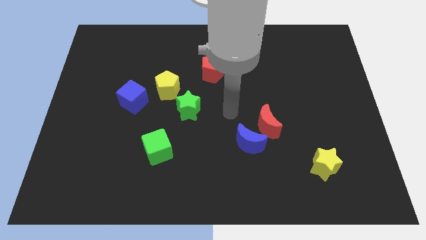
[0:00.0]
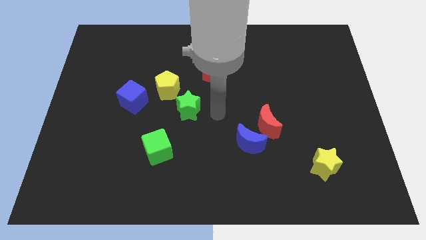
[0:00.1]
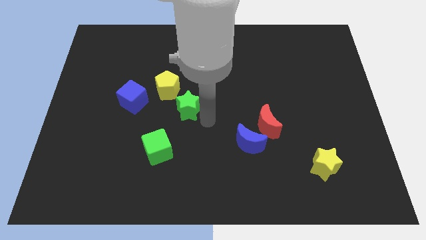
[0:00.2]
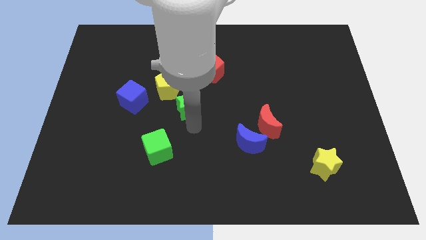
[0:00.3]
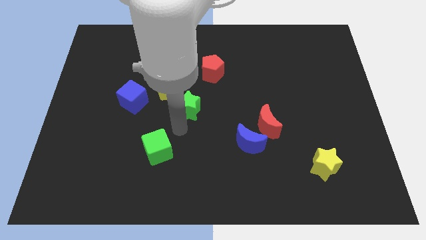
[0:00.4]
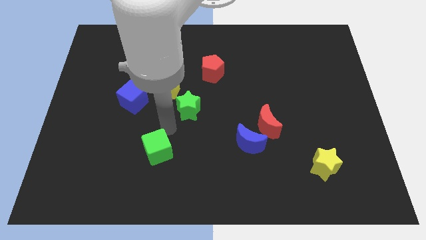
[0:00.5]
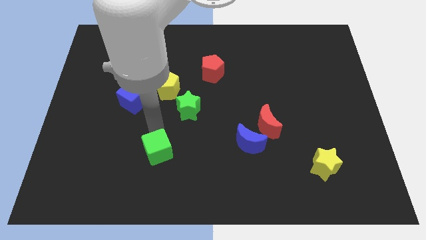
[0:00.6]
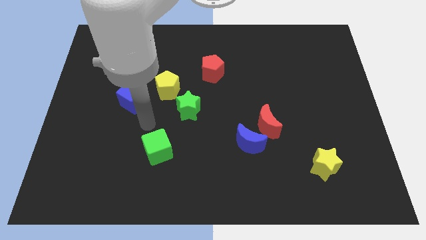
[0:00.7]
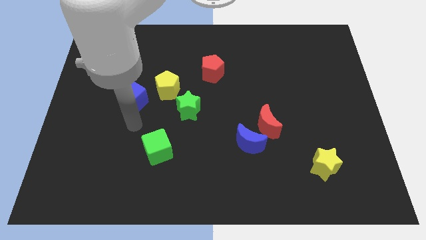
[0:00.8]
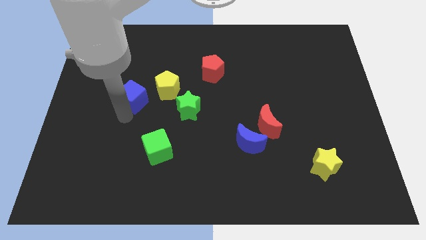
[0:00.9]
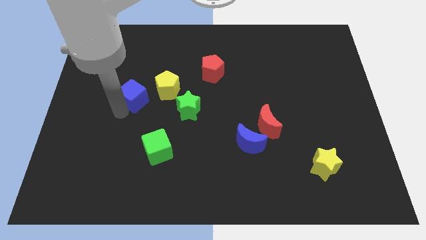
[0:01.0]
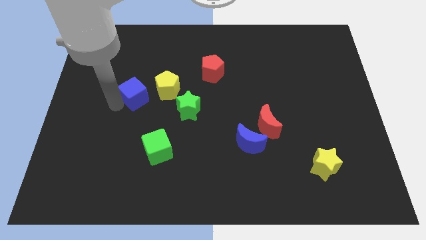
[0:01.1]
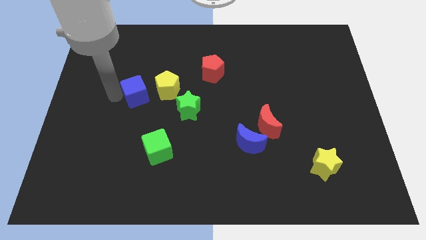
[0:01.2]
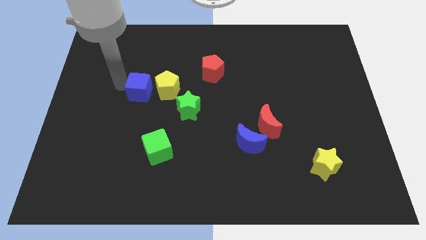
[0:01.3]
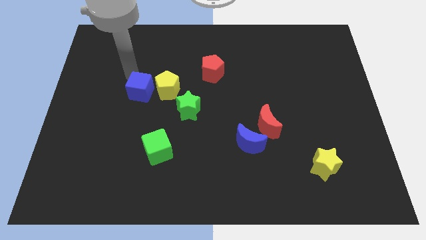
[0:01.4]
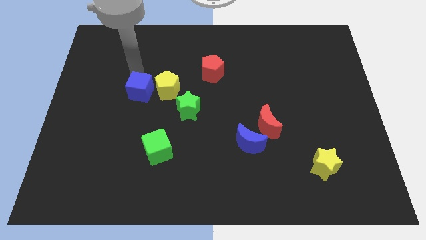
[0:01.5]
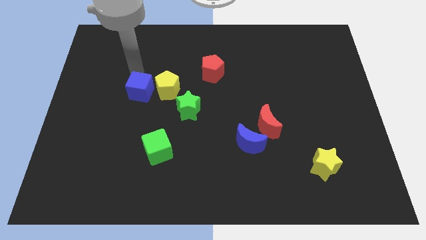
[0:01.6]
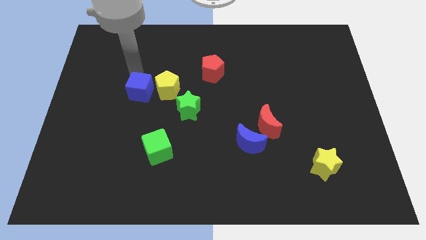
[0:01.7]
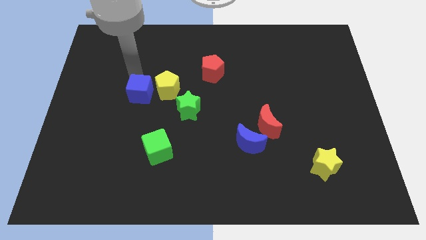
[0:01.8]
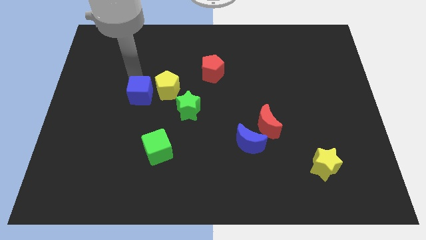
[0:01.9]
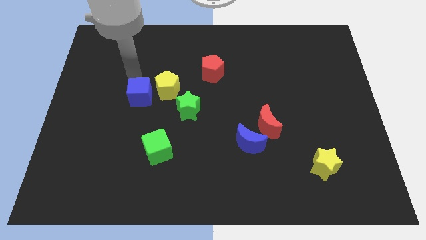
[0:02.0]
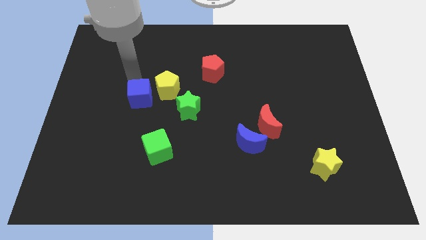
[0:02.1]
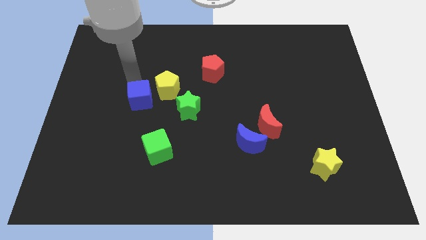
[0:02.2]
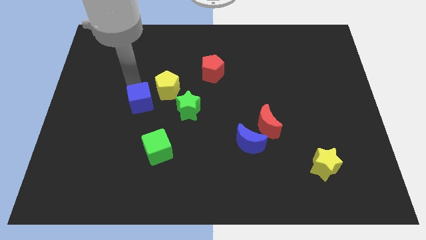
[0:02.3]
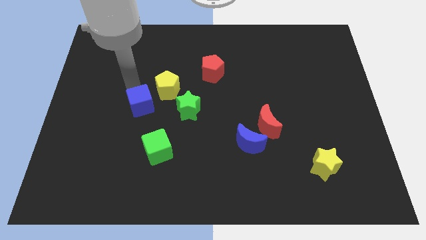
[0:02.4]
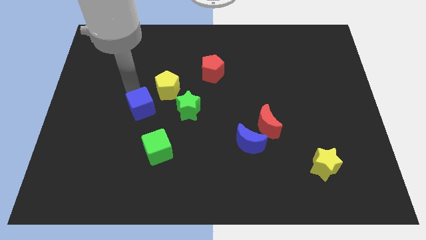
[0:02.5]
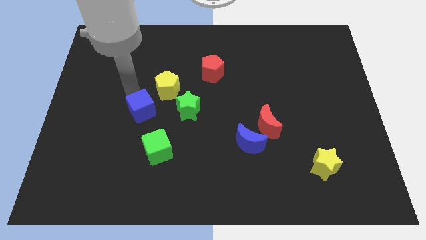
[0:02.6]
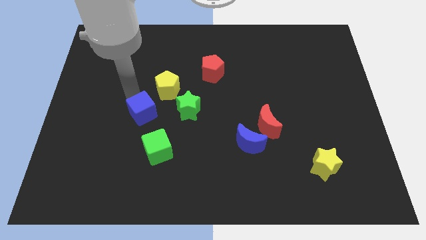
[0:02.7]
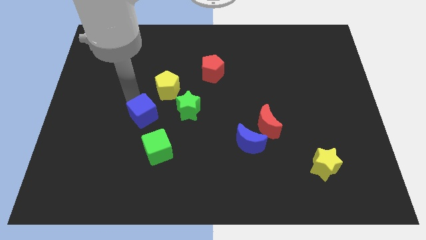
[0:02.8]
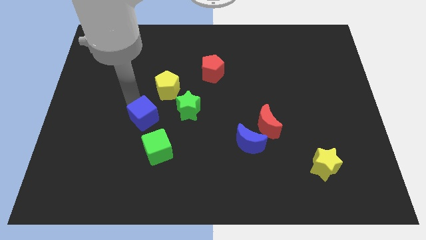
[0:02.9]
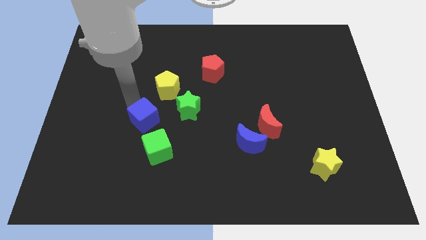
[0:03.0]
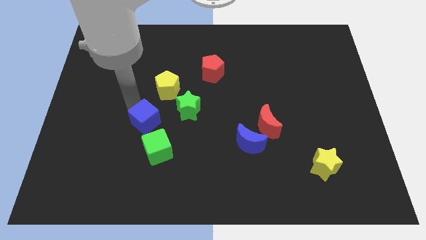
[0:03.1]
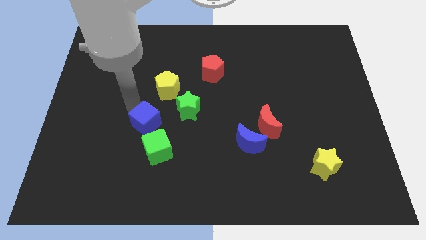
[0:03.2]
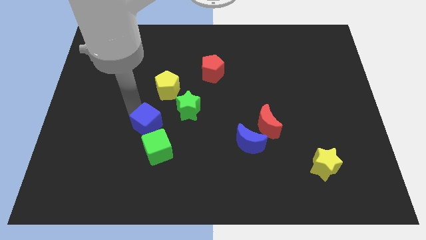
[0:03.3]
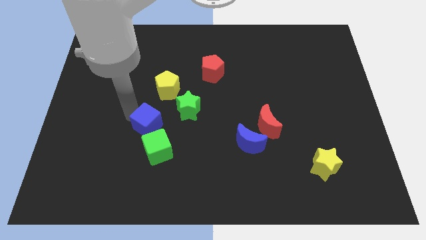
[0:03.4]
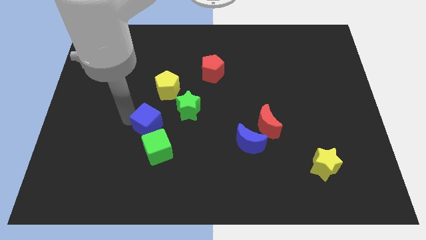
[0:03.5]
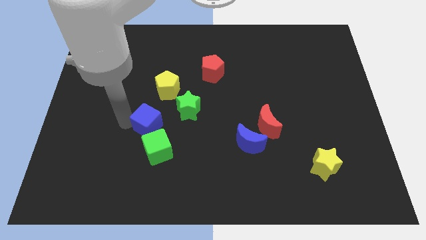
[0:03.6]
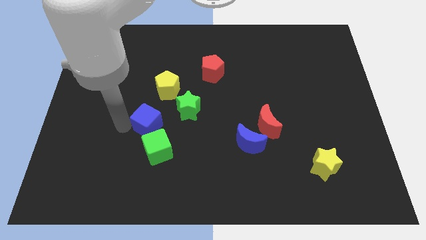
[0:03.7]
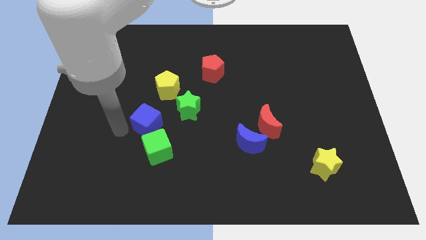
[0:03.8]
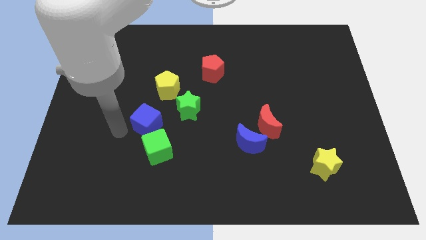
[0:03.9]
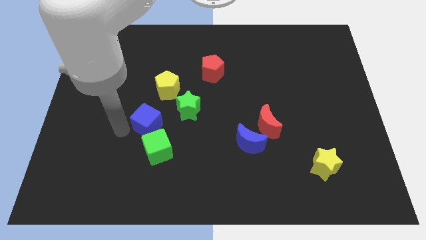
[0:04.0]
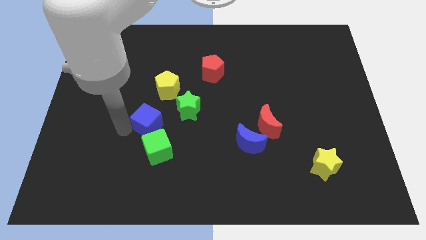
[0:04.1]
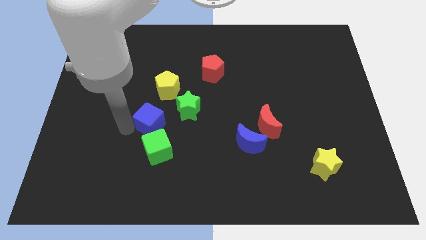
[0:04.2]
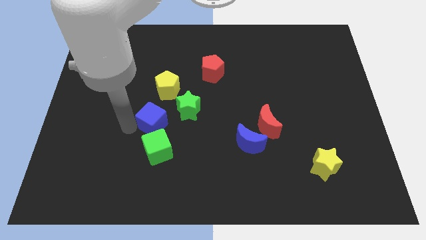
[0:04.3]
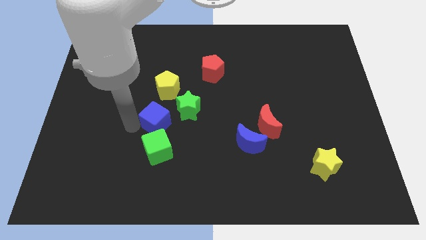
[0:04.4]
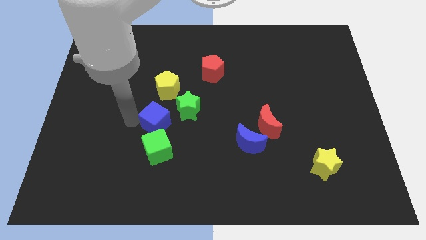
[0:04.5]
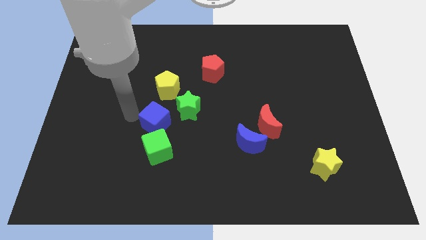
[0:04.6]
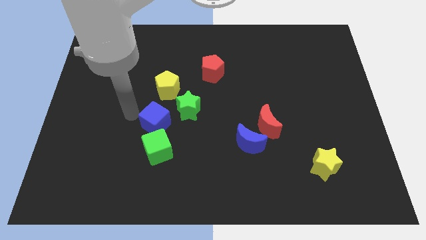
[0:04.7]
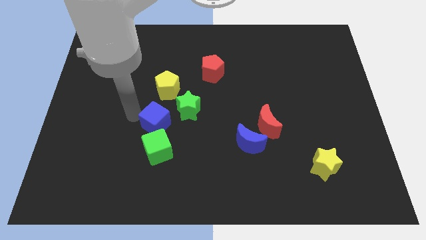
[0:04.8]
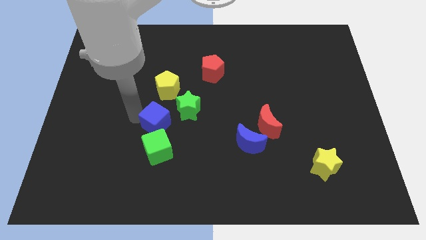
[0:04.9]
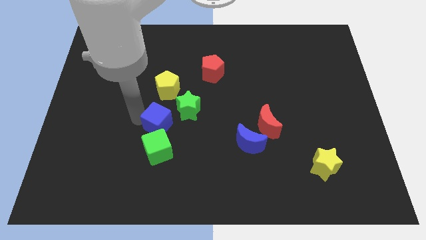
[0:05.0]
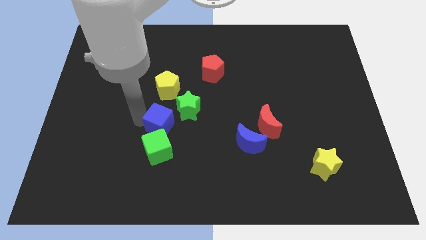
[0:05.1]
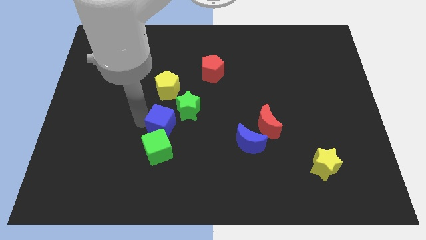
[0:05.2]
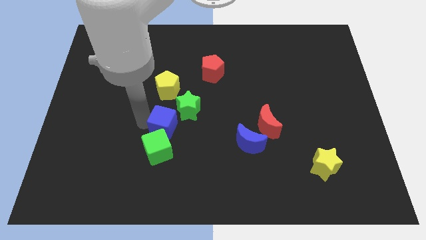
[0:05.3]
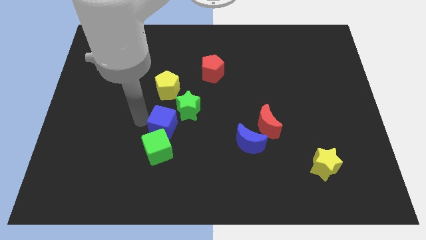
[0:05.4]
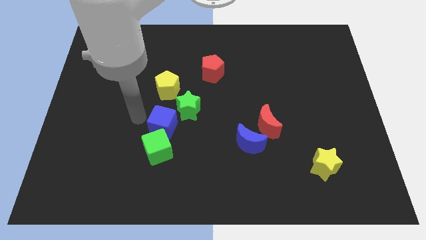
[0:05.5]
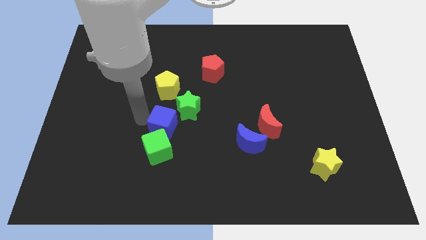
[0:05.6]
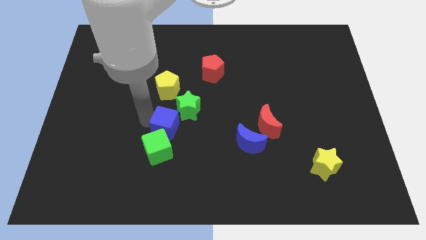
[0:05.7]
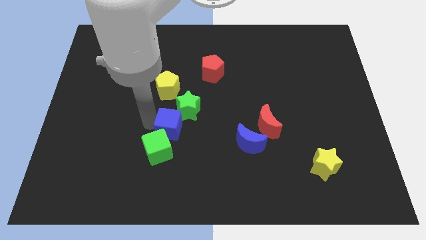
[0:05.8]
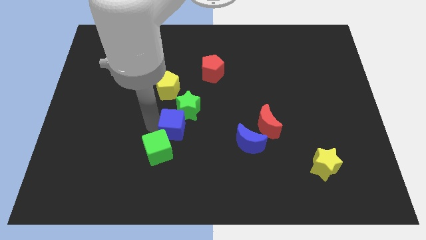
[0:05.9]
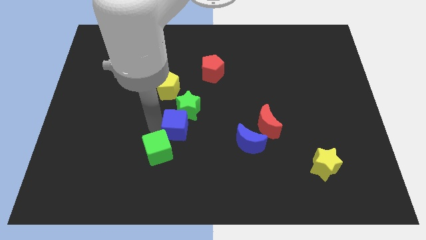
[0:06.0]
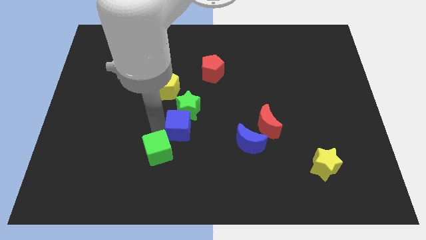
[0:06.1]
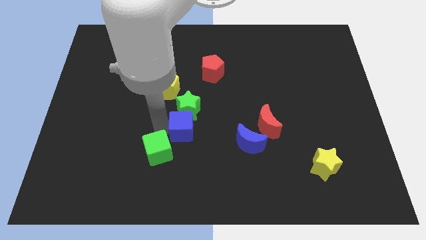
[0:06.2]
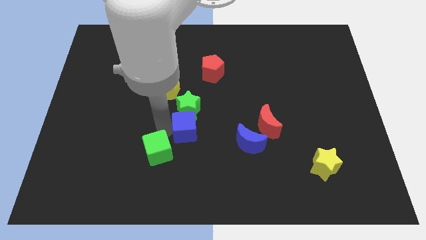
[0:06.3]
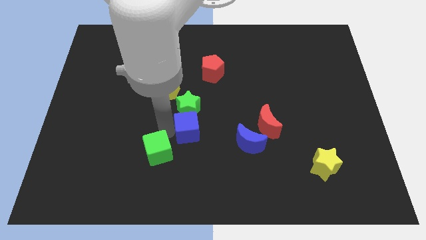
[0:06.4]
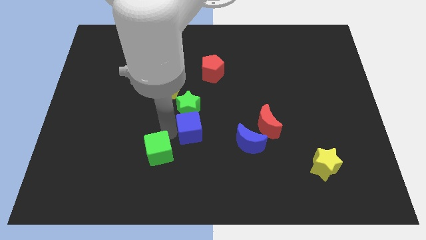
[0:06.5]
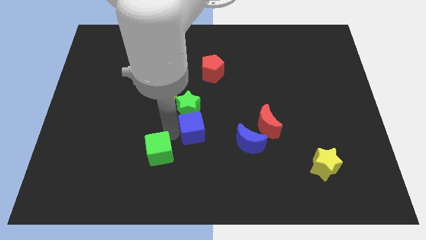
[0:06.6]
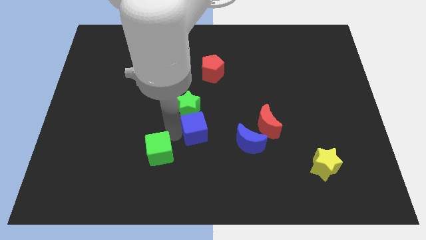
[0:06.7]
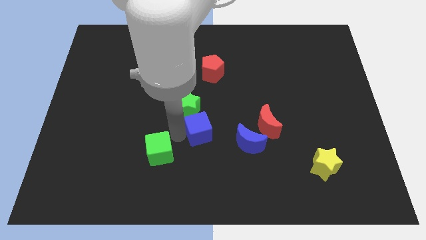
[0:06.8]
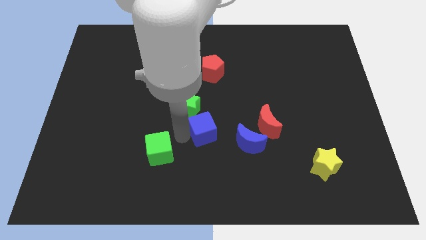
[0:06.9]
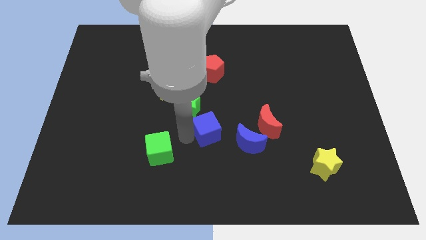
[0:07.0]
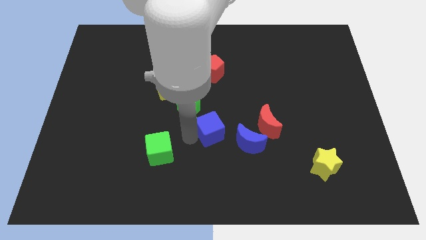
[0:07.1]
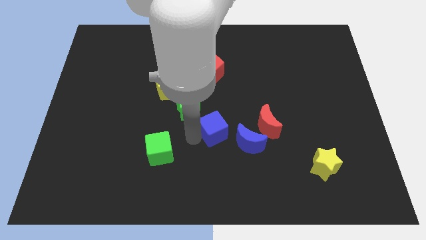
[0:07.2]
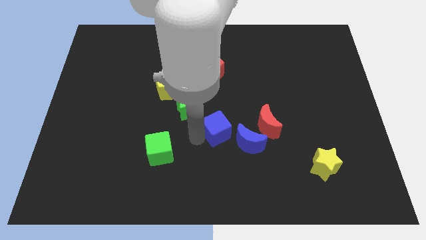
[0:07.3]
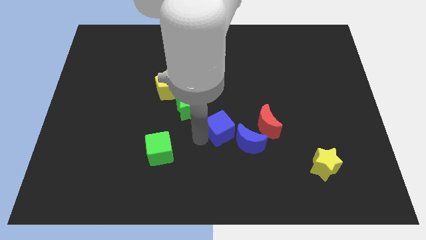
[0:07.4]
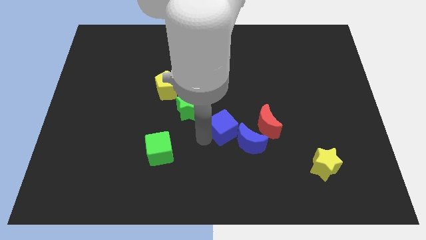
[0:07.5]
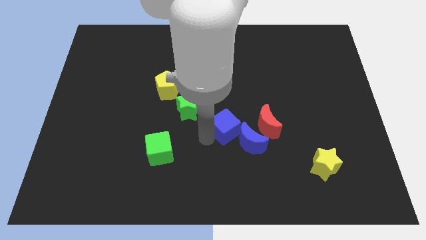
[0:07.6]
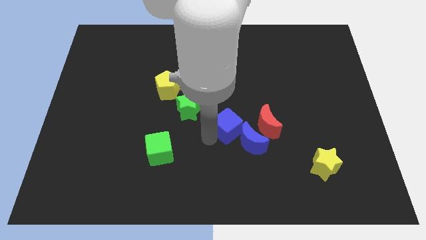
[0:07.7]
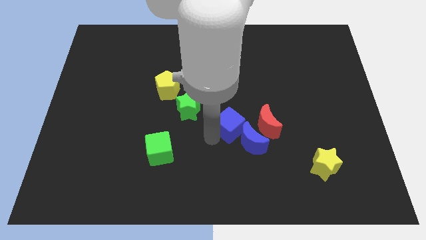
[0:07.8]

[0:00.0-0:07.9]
push the blue cube right

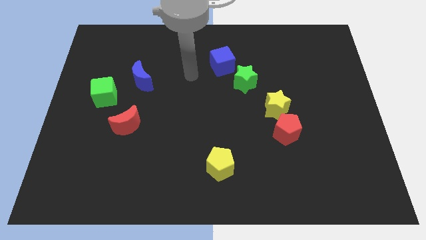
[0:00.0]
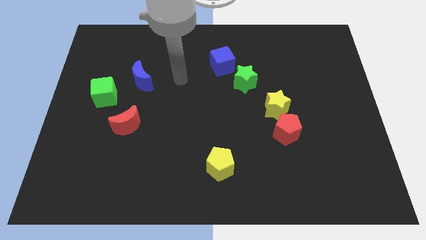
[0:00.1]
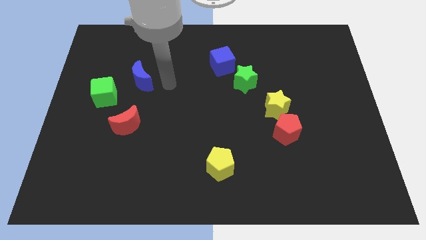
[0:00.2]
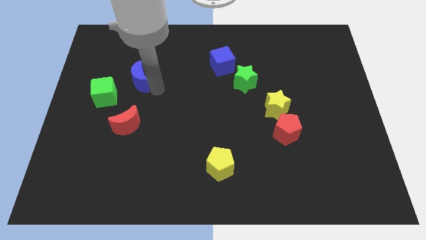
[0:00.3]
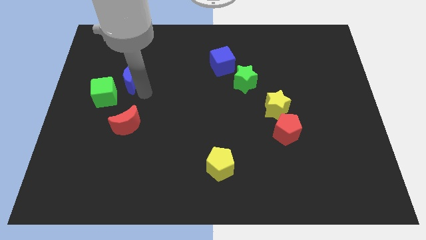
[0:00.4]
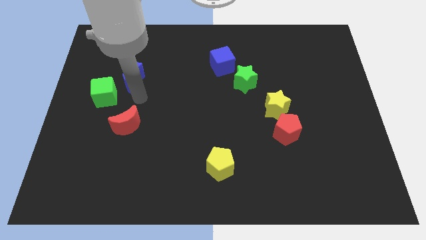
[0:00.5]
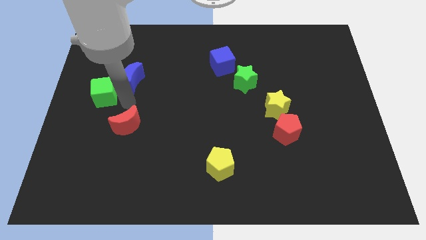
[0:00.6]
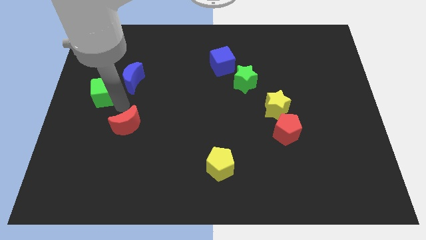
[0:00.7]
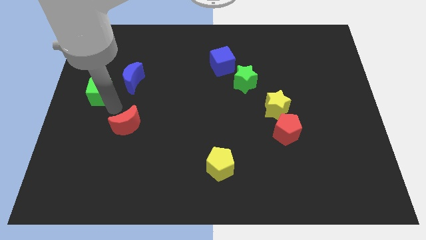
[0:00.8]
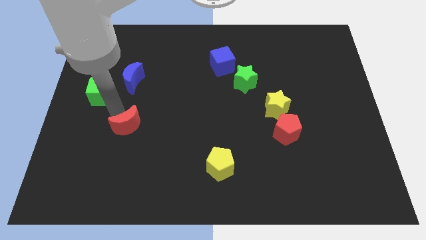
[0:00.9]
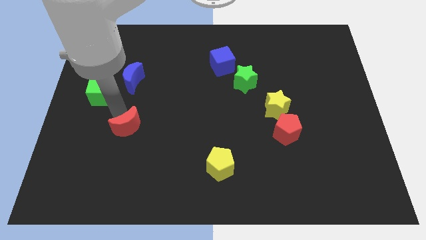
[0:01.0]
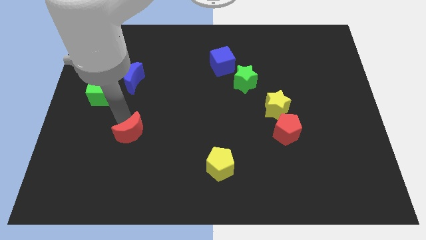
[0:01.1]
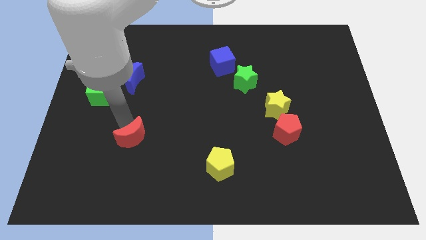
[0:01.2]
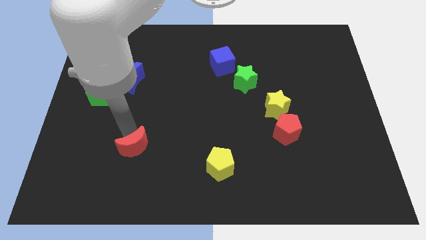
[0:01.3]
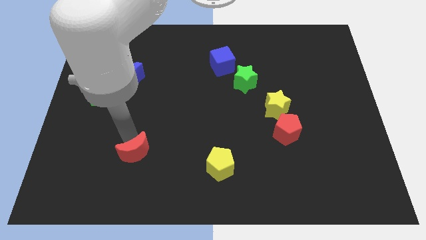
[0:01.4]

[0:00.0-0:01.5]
push the red moon a little bit down and to the right diagonally
